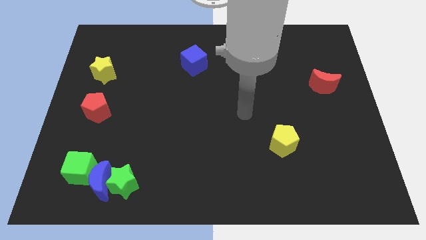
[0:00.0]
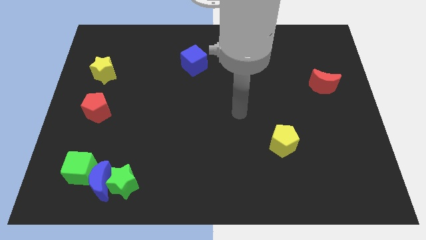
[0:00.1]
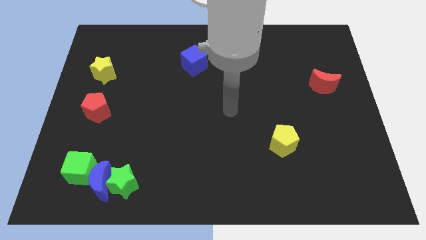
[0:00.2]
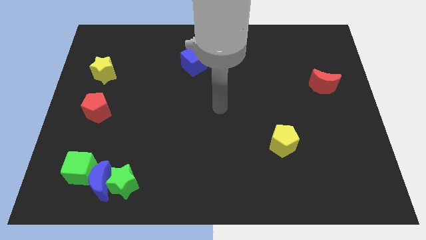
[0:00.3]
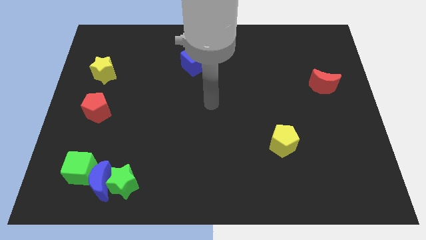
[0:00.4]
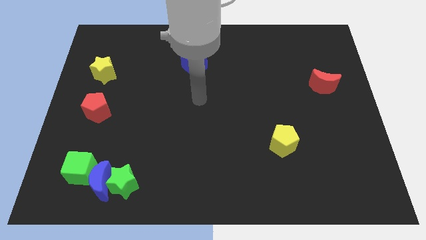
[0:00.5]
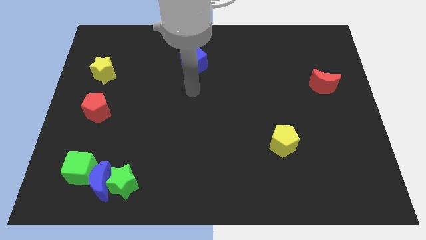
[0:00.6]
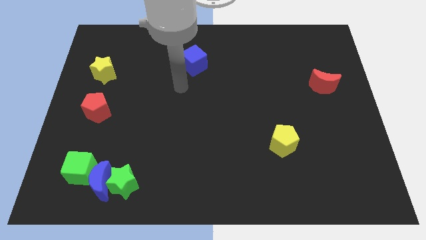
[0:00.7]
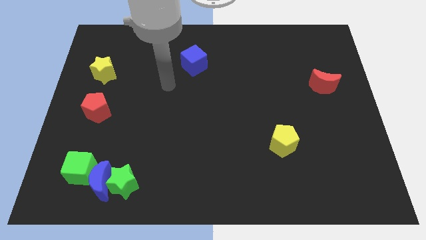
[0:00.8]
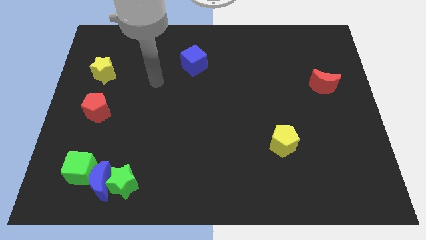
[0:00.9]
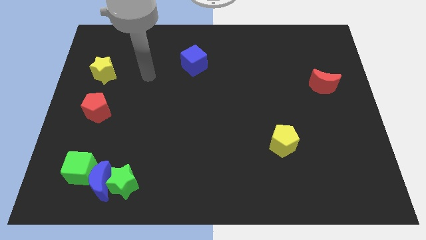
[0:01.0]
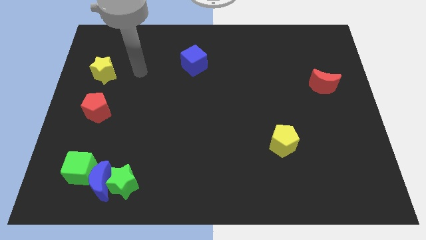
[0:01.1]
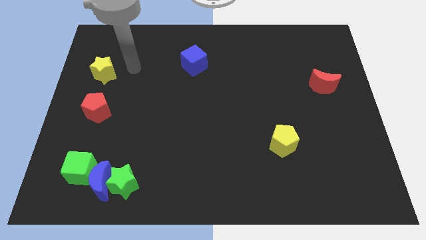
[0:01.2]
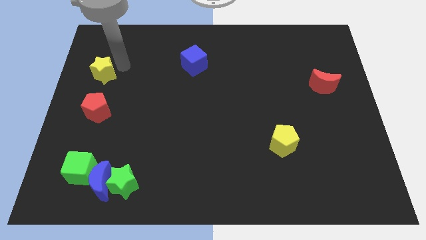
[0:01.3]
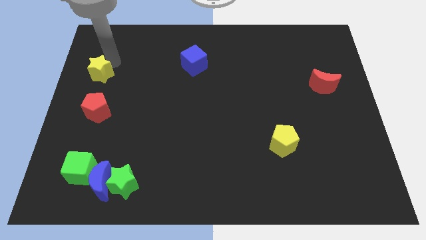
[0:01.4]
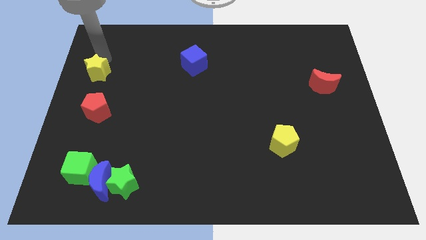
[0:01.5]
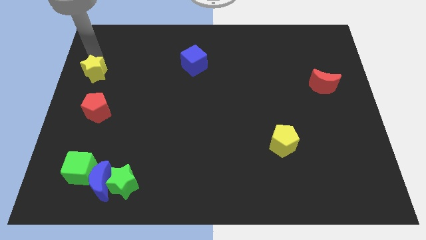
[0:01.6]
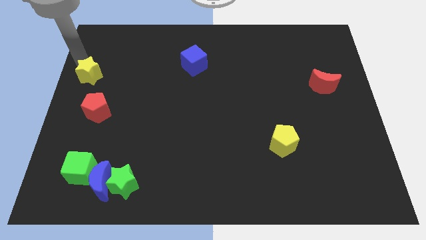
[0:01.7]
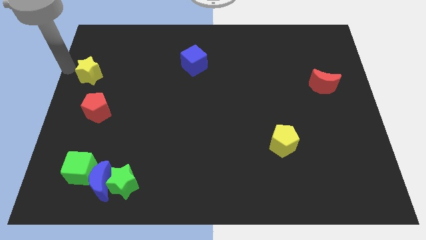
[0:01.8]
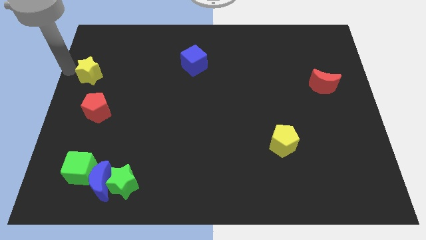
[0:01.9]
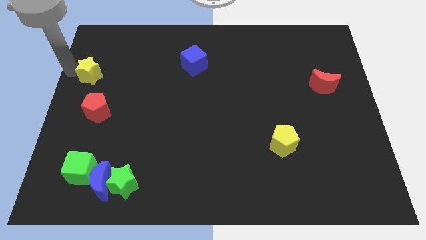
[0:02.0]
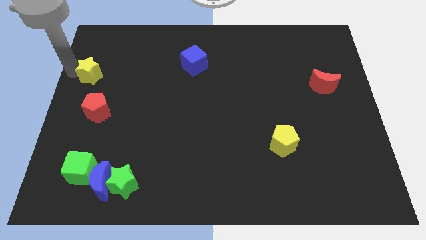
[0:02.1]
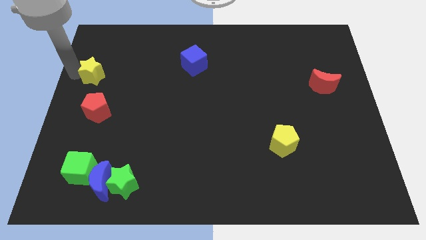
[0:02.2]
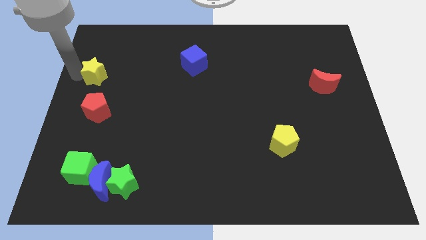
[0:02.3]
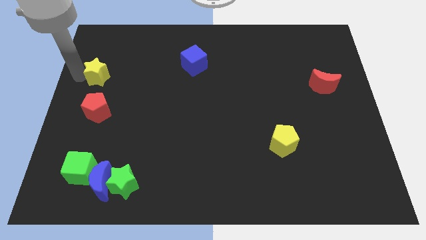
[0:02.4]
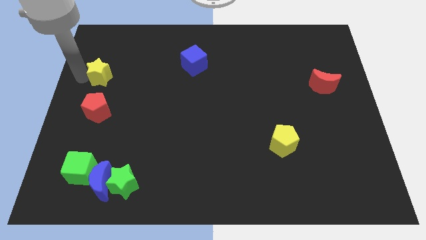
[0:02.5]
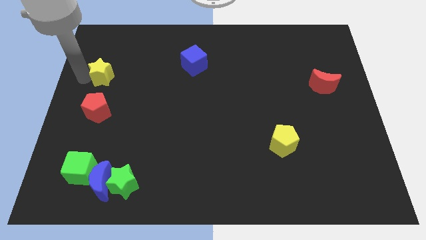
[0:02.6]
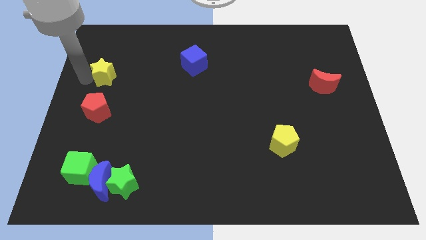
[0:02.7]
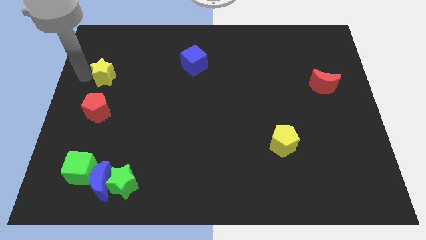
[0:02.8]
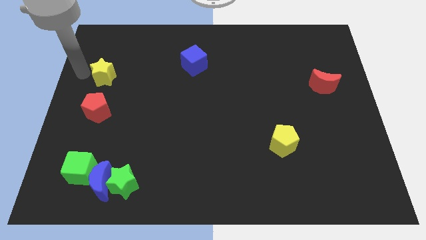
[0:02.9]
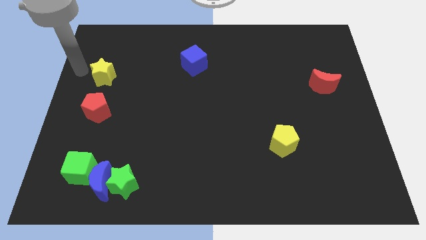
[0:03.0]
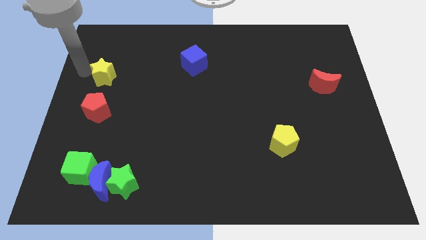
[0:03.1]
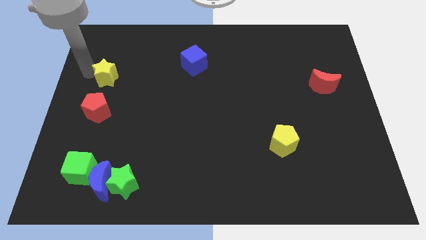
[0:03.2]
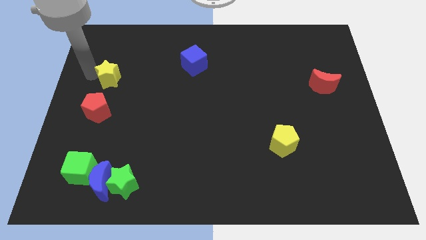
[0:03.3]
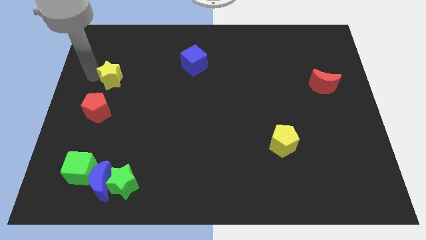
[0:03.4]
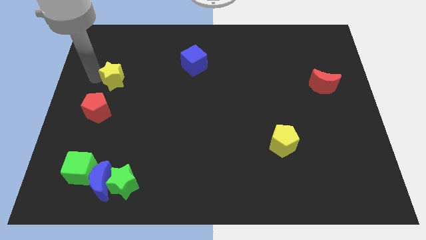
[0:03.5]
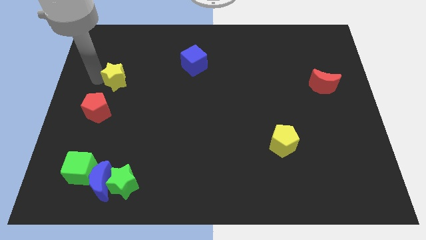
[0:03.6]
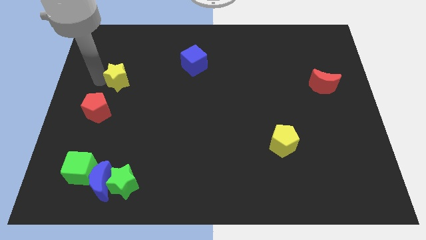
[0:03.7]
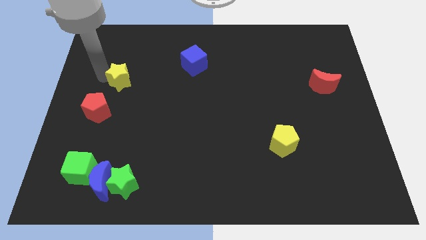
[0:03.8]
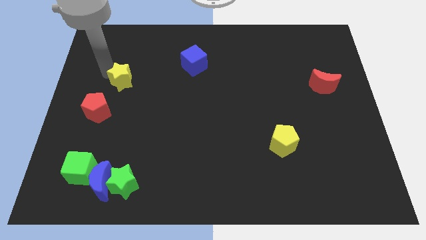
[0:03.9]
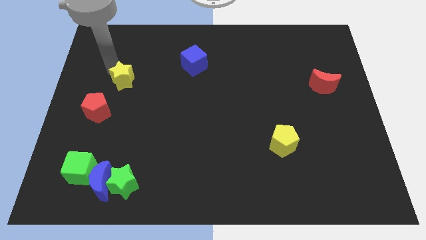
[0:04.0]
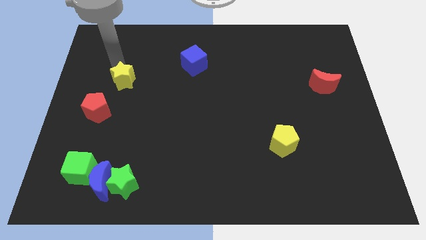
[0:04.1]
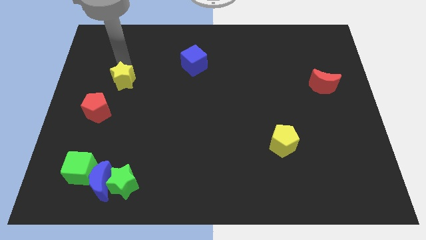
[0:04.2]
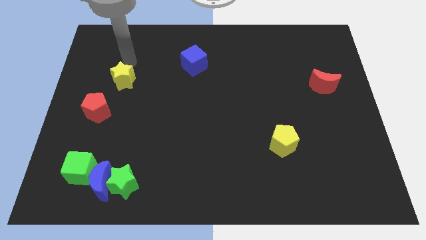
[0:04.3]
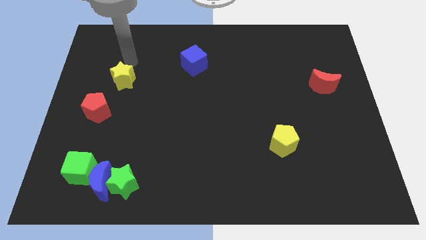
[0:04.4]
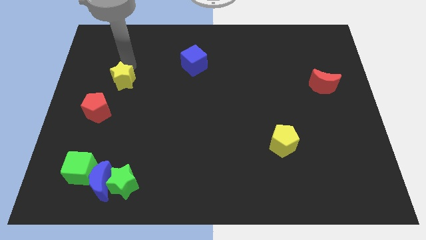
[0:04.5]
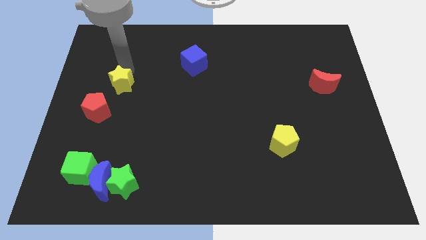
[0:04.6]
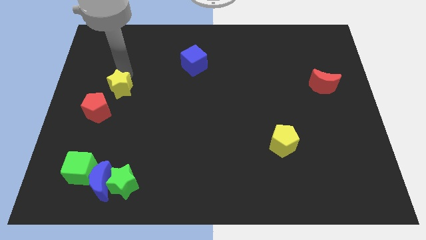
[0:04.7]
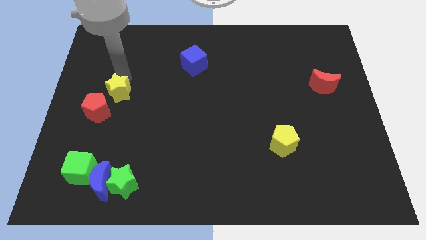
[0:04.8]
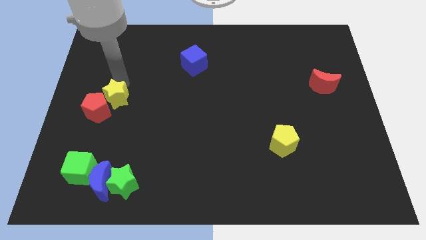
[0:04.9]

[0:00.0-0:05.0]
slide the yellow star down a little

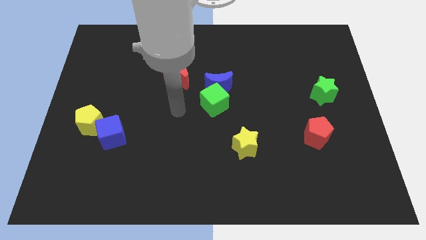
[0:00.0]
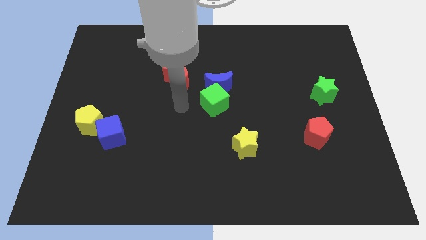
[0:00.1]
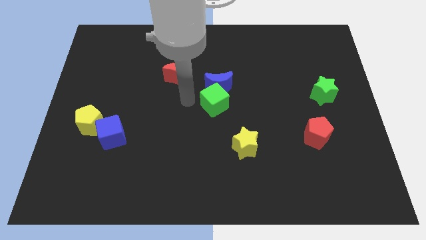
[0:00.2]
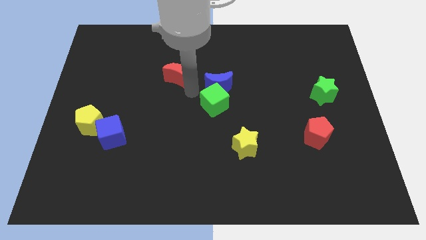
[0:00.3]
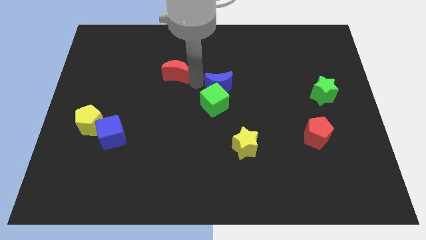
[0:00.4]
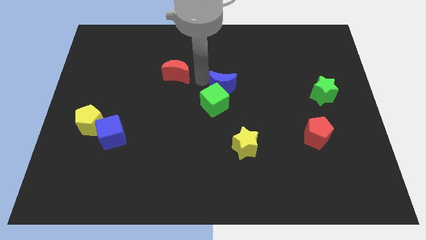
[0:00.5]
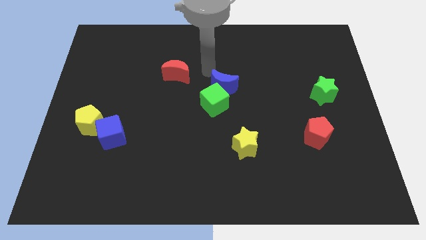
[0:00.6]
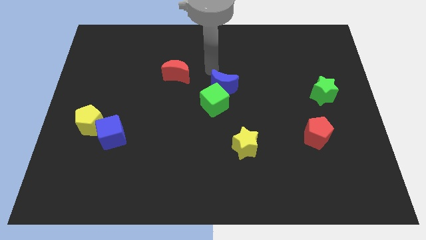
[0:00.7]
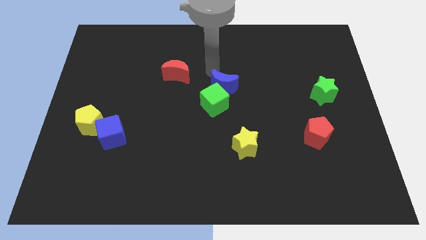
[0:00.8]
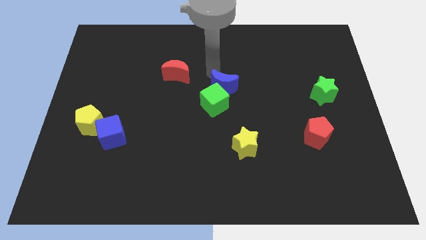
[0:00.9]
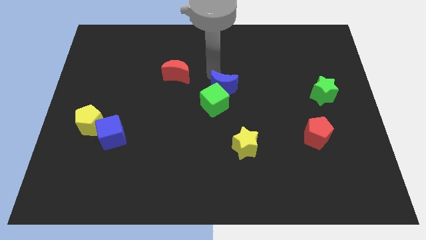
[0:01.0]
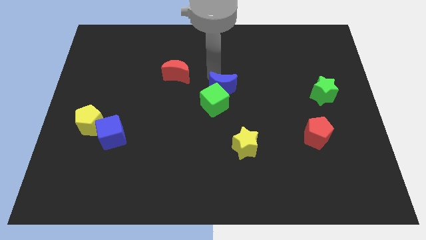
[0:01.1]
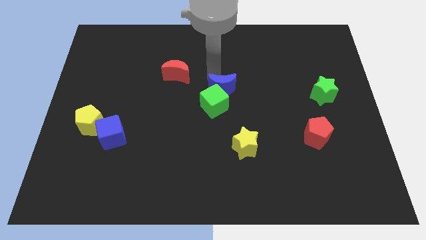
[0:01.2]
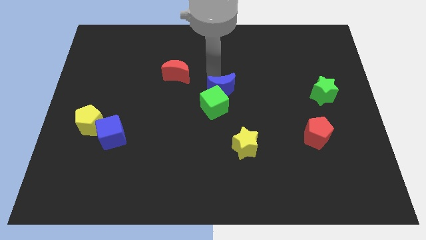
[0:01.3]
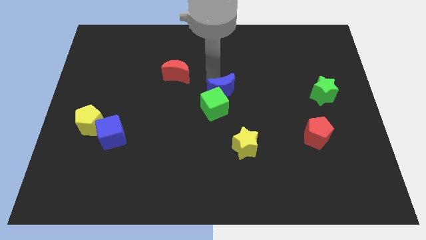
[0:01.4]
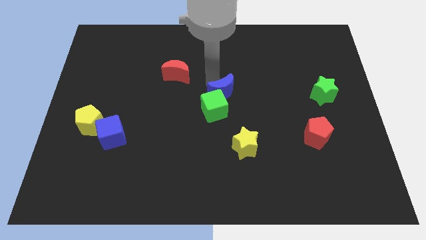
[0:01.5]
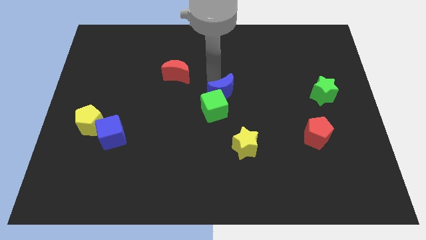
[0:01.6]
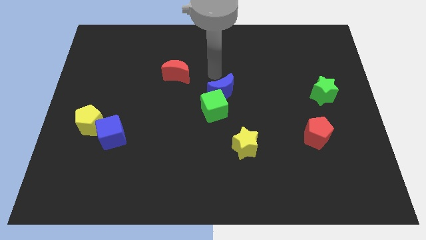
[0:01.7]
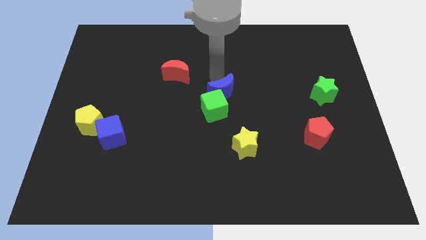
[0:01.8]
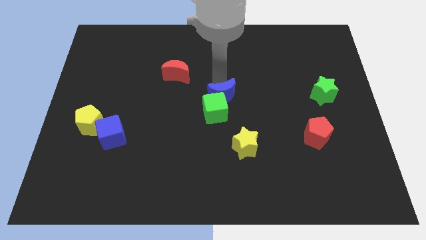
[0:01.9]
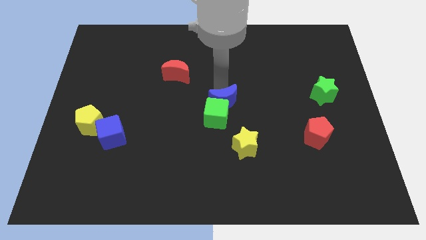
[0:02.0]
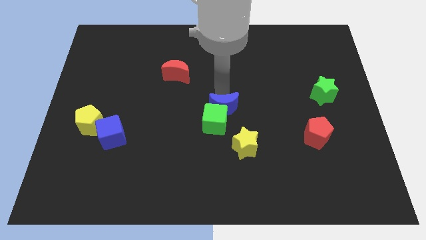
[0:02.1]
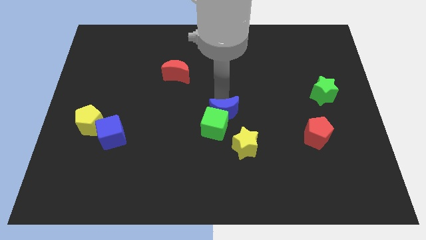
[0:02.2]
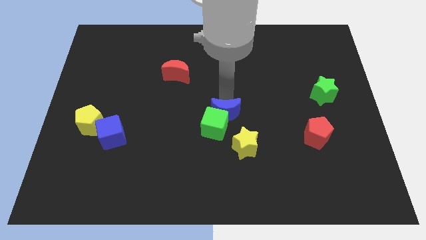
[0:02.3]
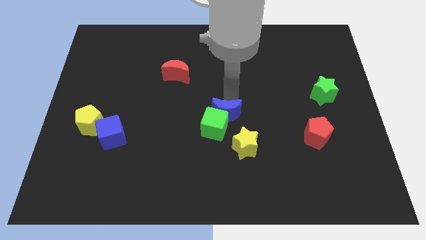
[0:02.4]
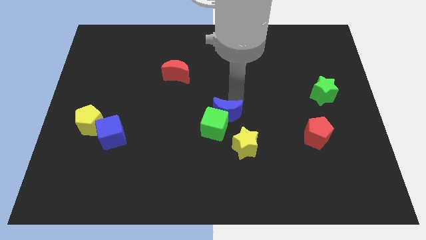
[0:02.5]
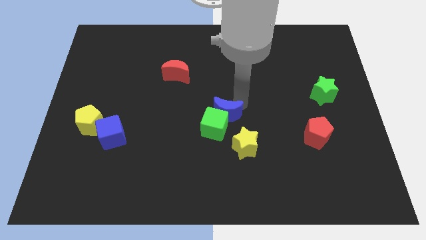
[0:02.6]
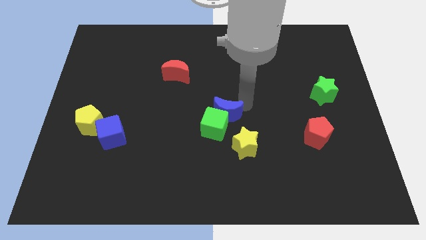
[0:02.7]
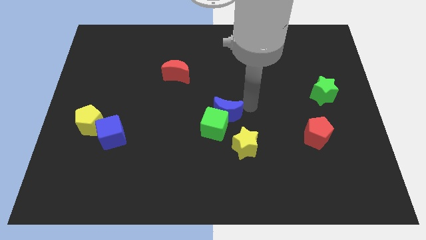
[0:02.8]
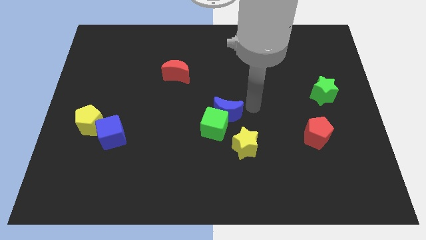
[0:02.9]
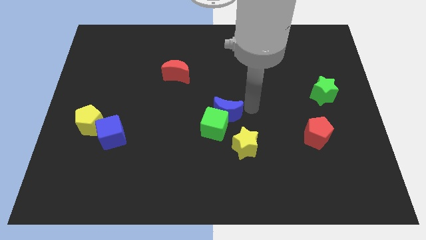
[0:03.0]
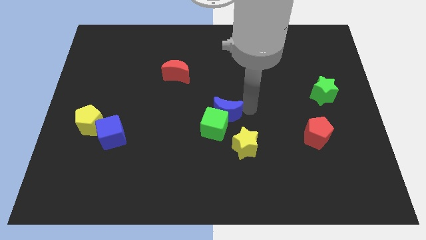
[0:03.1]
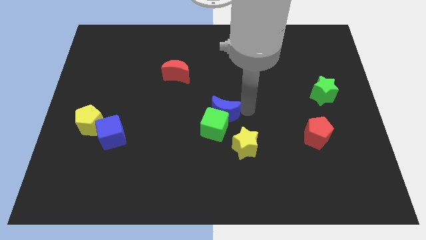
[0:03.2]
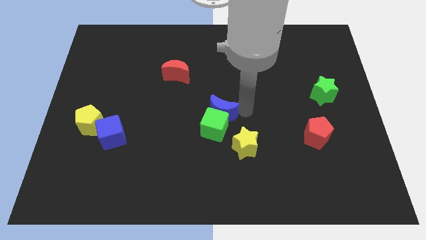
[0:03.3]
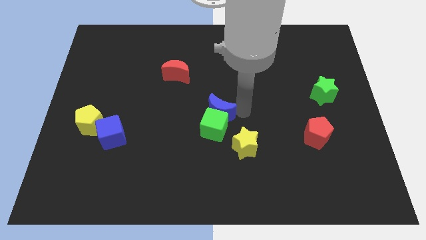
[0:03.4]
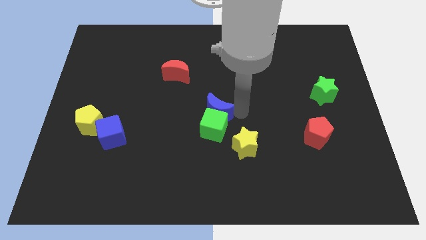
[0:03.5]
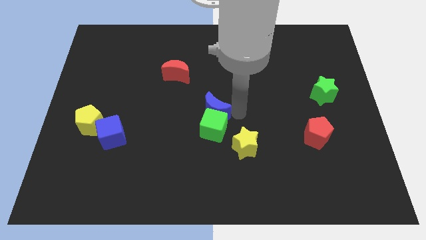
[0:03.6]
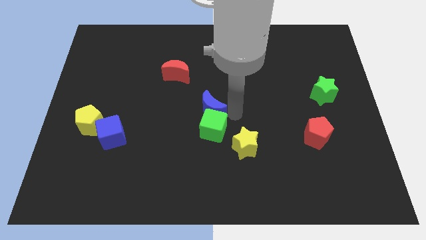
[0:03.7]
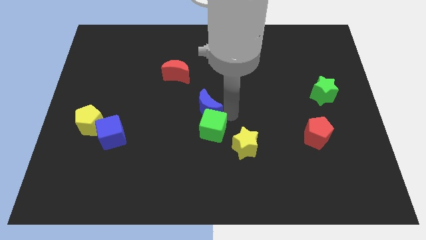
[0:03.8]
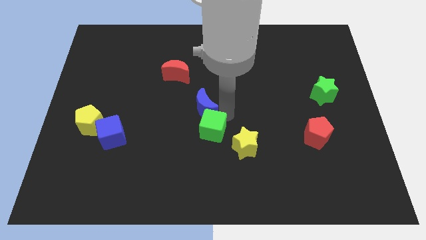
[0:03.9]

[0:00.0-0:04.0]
slightly move the blue moon down and left
